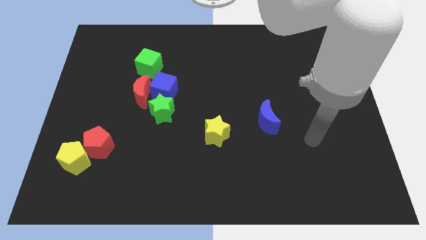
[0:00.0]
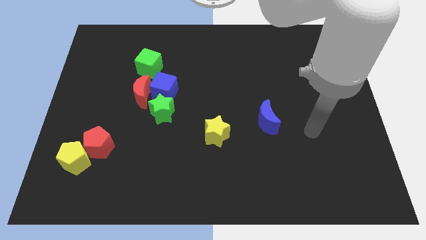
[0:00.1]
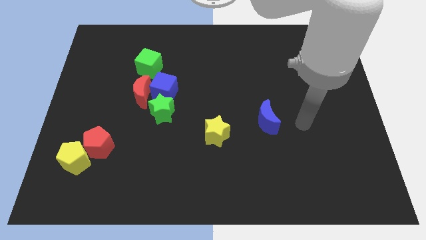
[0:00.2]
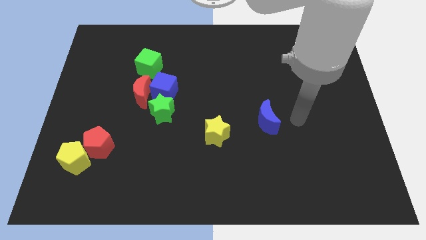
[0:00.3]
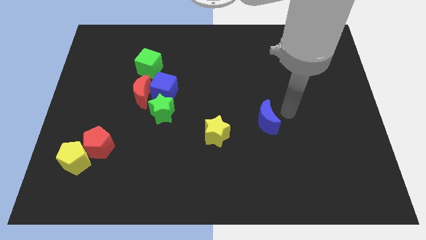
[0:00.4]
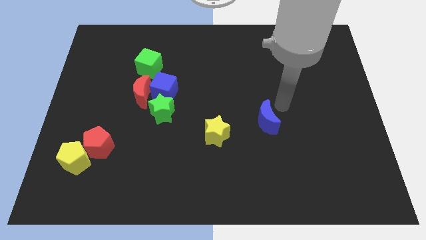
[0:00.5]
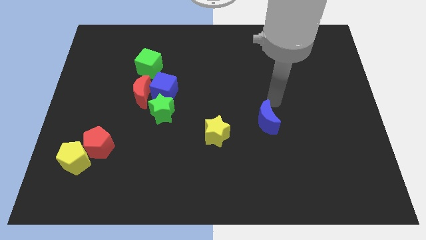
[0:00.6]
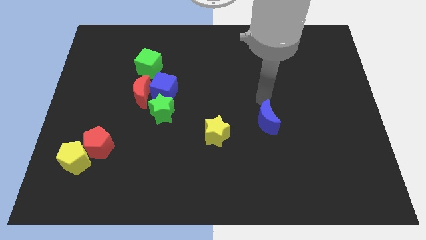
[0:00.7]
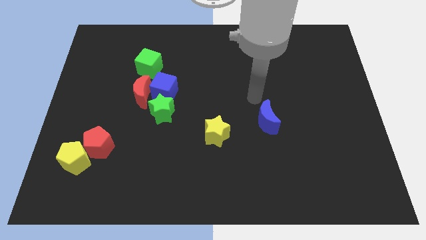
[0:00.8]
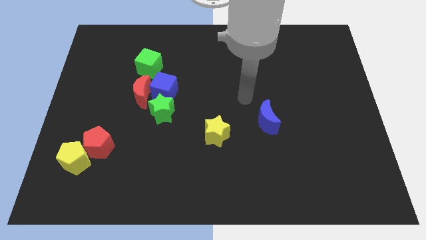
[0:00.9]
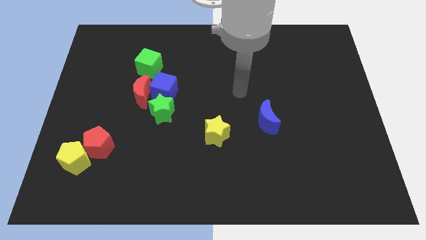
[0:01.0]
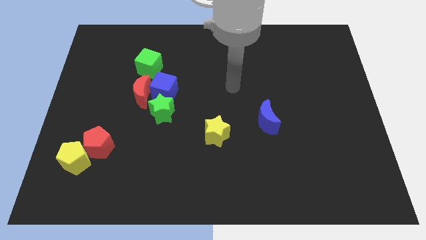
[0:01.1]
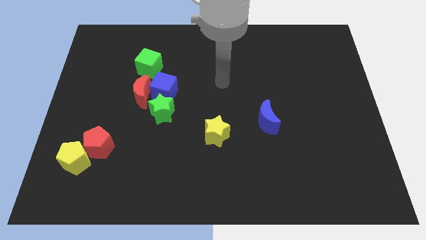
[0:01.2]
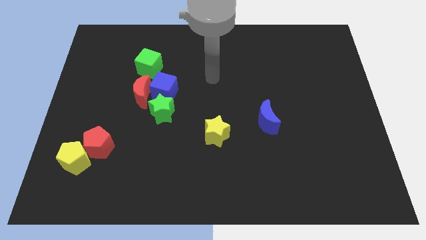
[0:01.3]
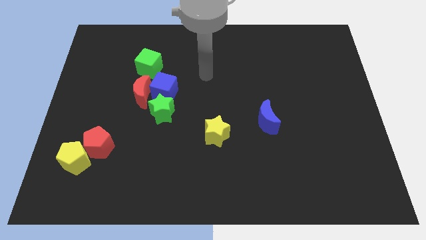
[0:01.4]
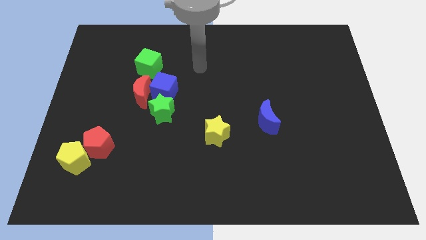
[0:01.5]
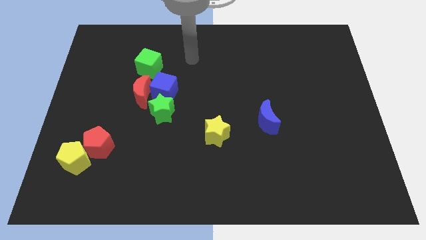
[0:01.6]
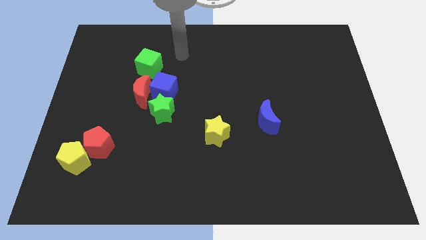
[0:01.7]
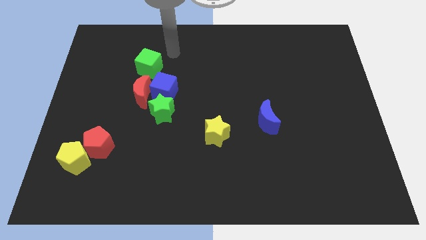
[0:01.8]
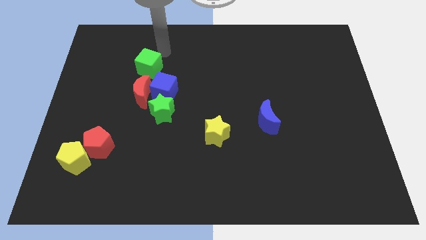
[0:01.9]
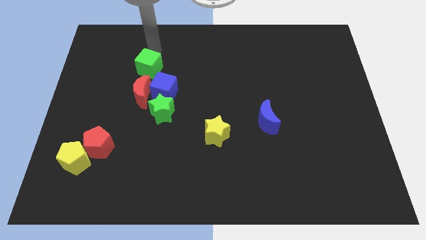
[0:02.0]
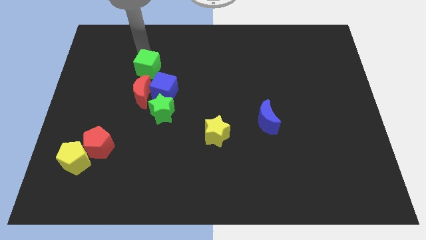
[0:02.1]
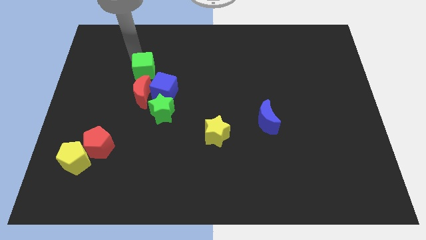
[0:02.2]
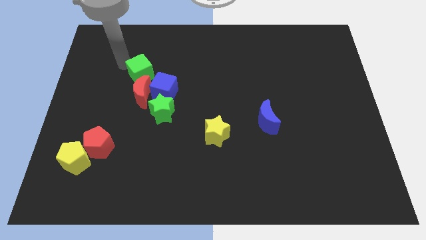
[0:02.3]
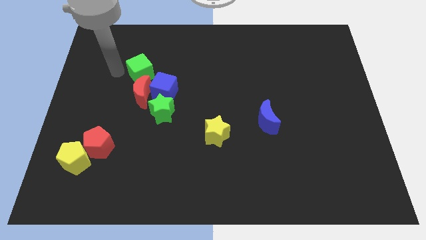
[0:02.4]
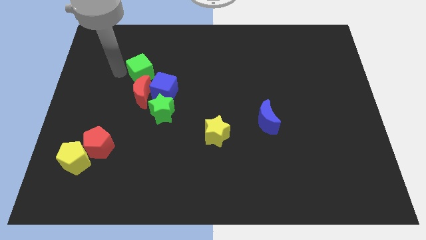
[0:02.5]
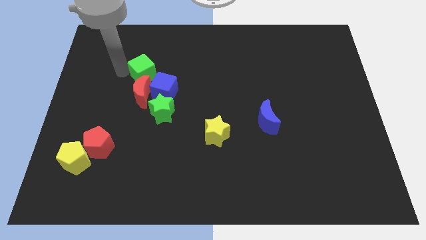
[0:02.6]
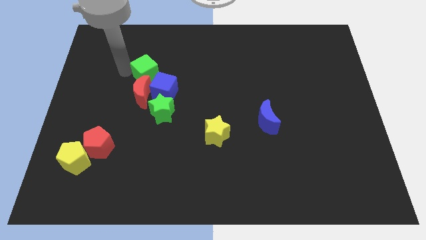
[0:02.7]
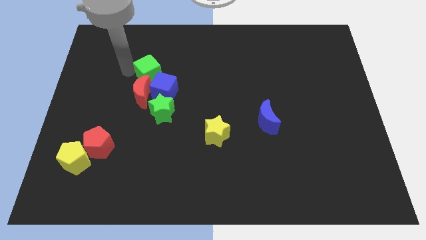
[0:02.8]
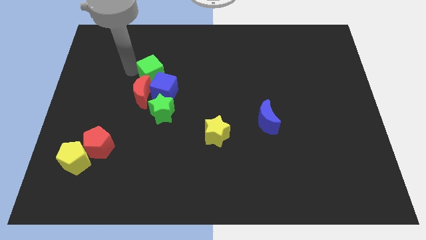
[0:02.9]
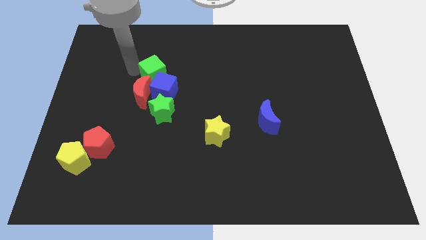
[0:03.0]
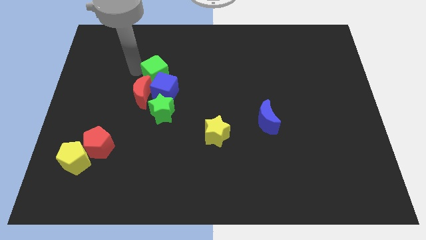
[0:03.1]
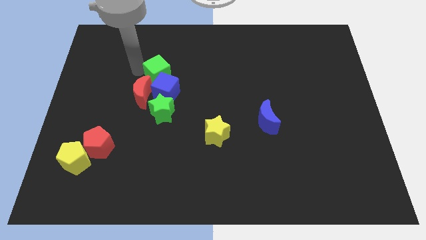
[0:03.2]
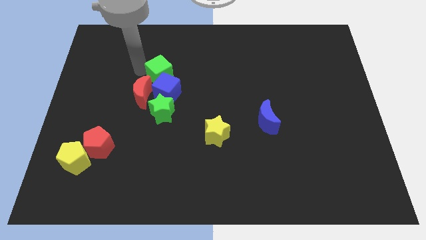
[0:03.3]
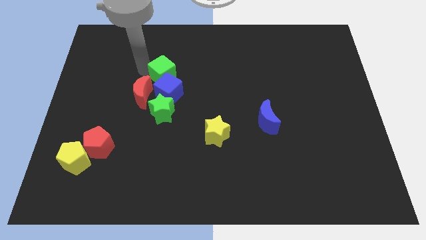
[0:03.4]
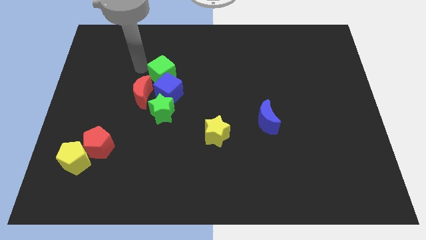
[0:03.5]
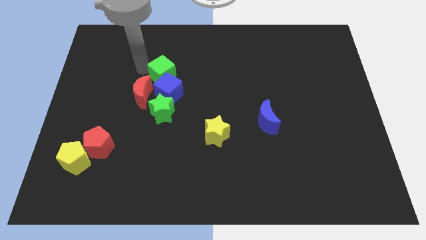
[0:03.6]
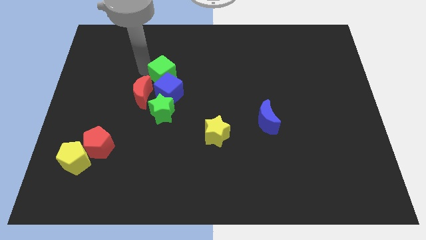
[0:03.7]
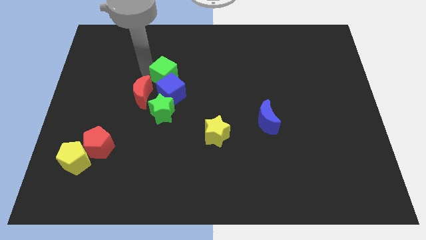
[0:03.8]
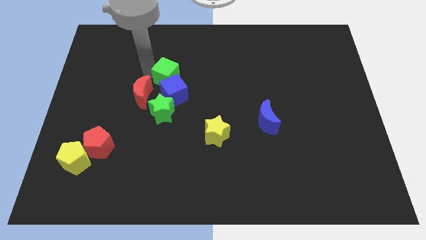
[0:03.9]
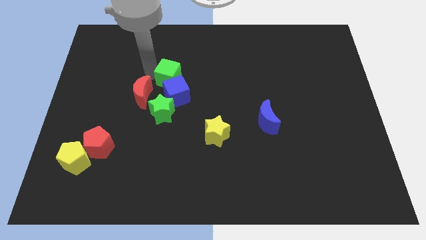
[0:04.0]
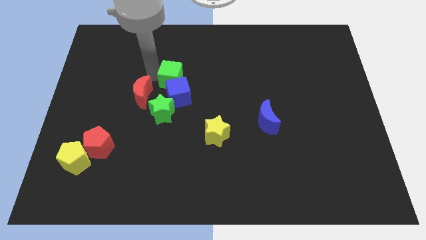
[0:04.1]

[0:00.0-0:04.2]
slide the green cube slightly down and to the right

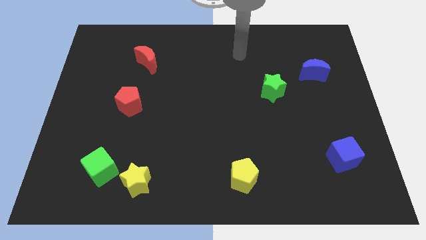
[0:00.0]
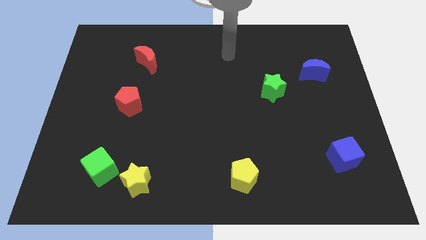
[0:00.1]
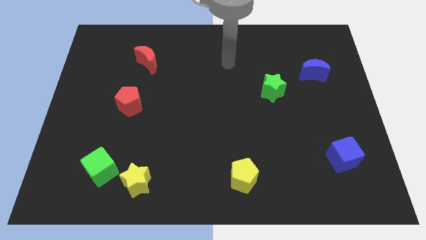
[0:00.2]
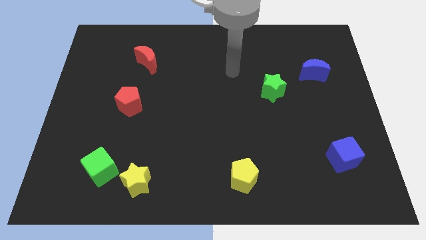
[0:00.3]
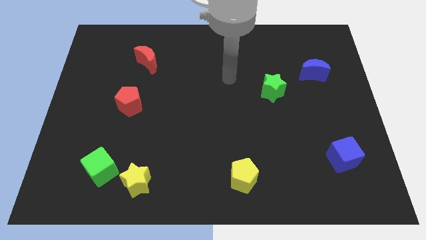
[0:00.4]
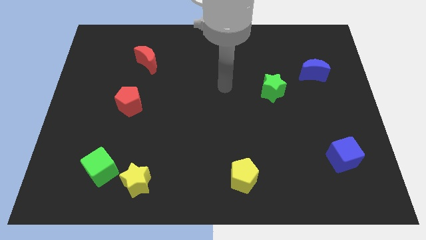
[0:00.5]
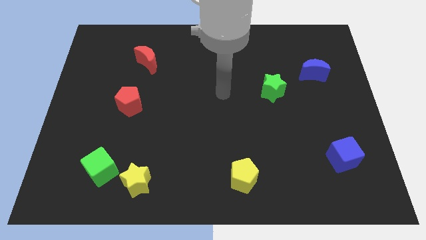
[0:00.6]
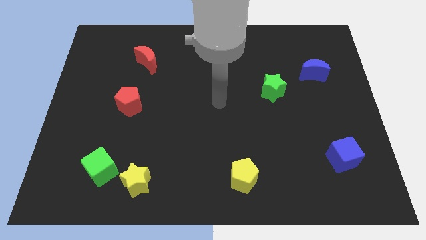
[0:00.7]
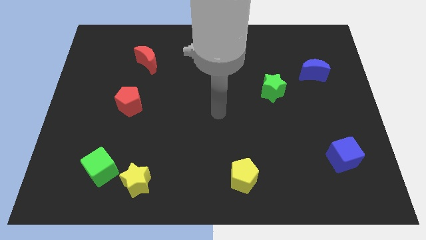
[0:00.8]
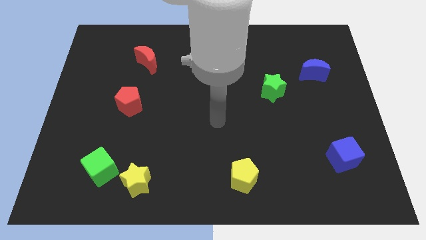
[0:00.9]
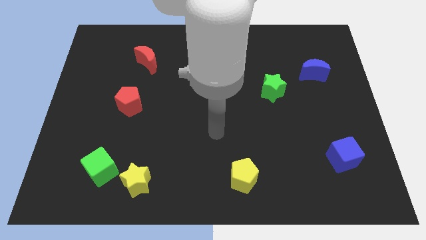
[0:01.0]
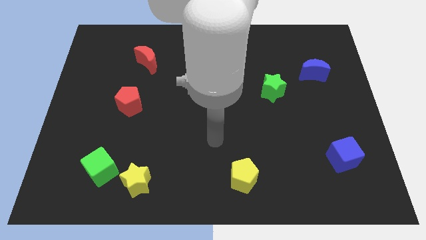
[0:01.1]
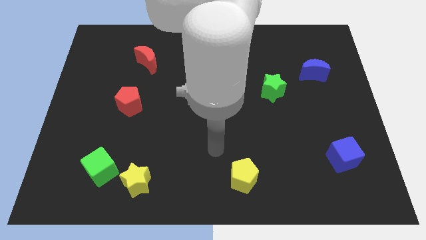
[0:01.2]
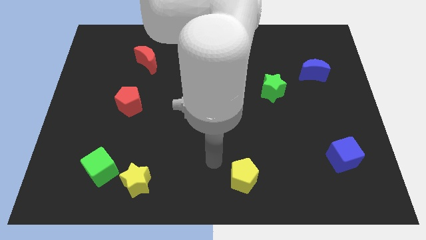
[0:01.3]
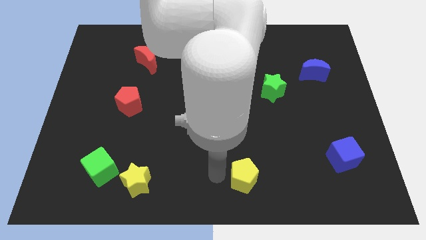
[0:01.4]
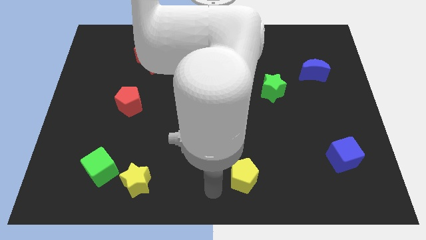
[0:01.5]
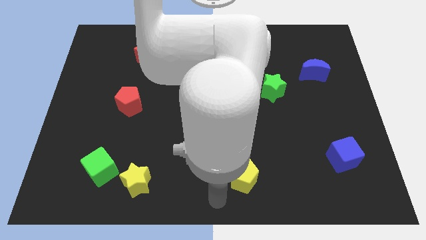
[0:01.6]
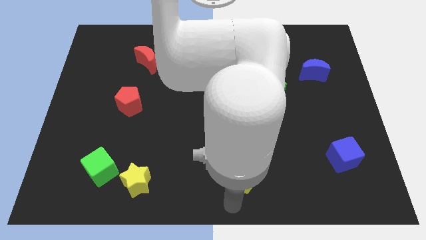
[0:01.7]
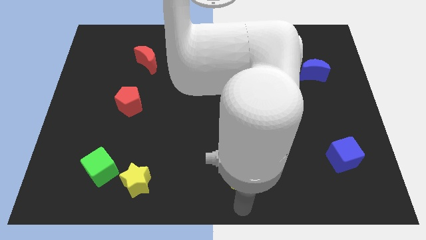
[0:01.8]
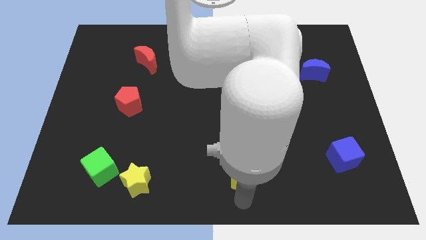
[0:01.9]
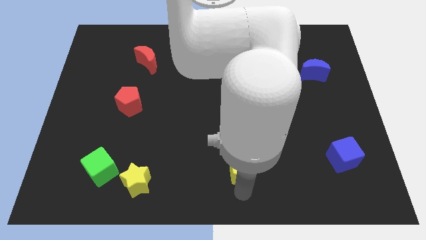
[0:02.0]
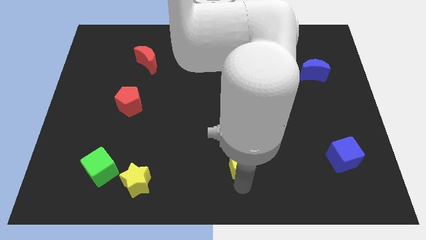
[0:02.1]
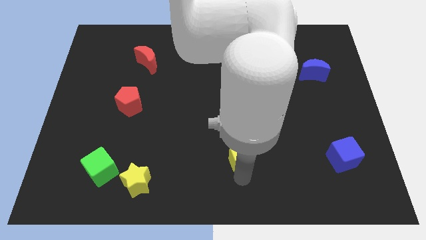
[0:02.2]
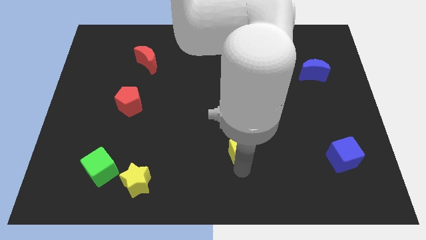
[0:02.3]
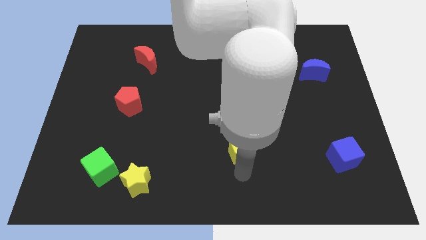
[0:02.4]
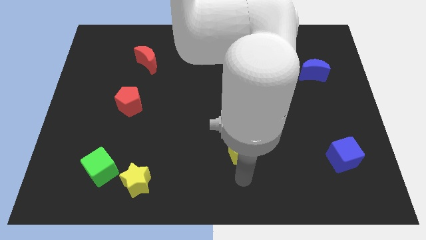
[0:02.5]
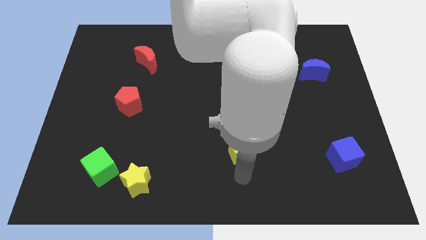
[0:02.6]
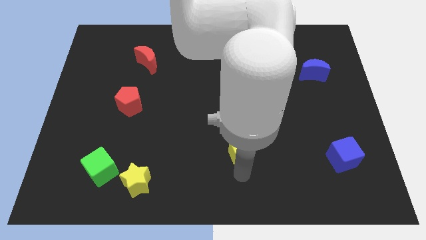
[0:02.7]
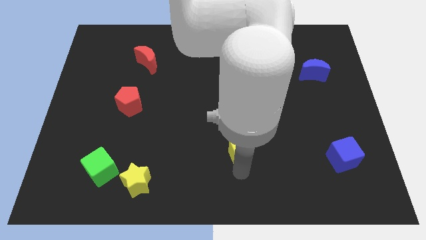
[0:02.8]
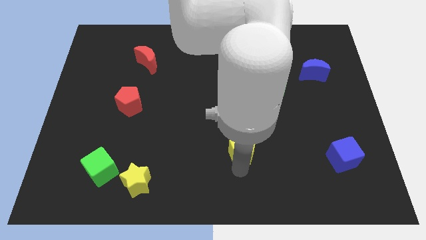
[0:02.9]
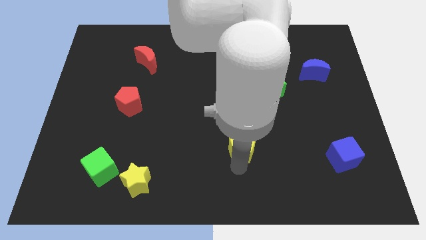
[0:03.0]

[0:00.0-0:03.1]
slightly slide the yellow pentagon upwards

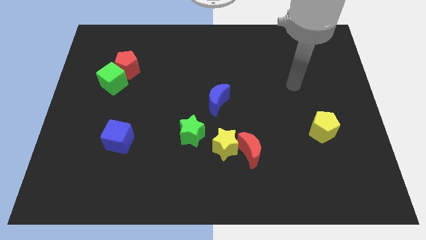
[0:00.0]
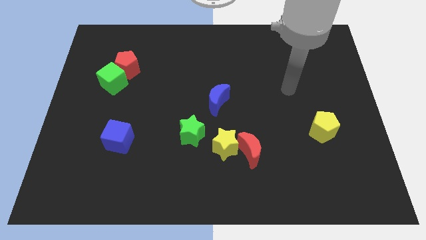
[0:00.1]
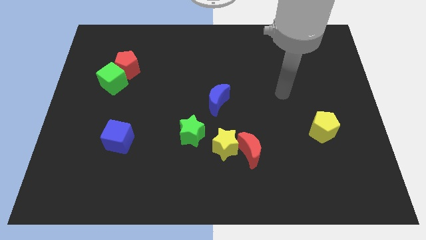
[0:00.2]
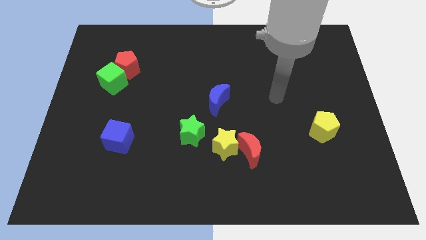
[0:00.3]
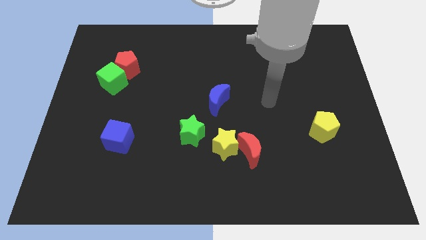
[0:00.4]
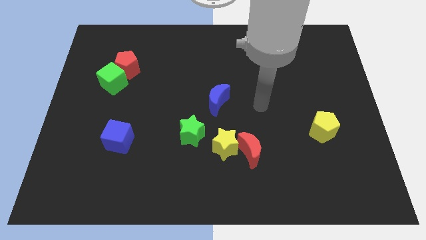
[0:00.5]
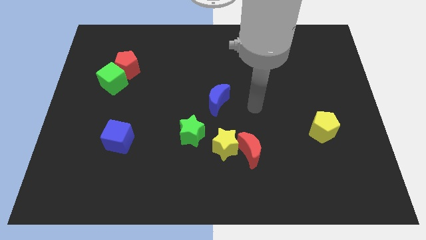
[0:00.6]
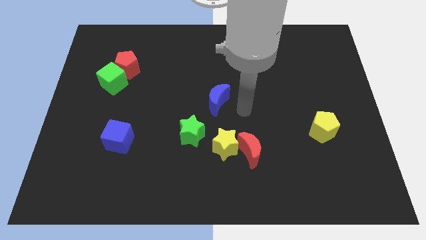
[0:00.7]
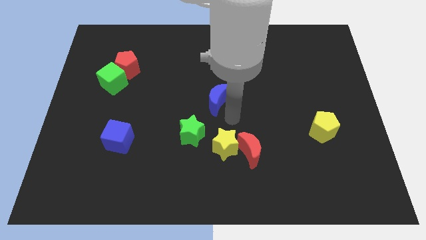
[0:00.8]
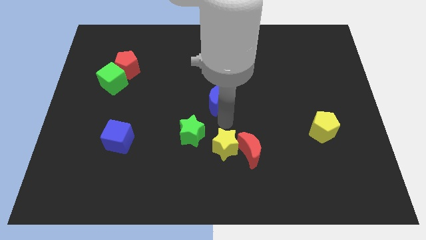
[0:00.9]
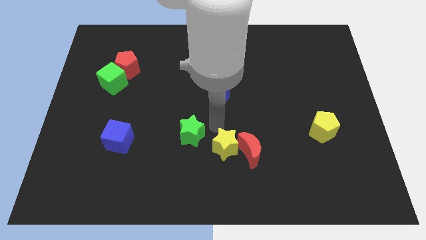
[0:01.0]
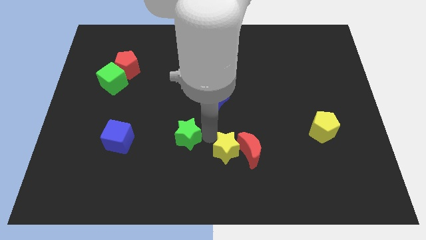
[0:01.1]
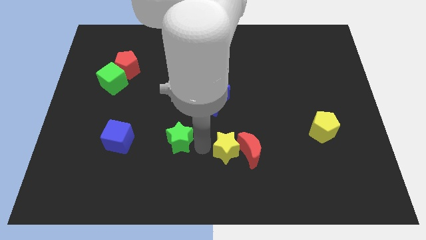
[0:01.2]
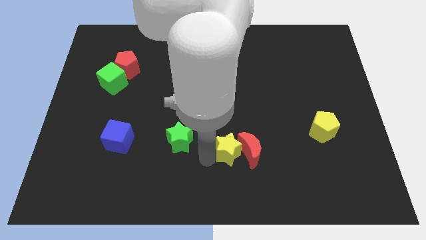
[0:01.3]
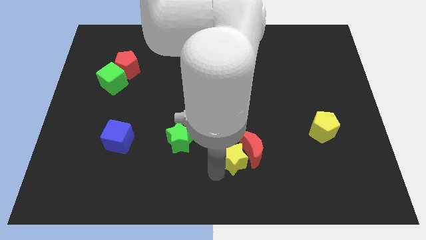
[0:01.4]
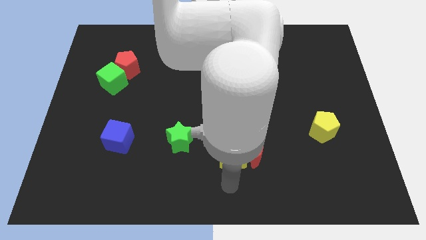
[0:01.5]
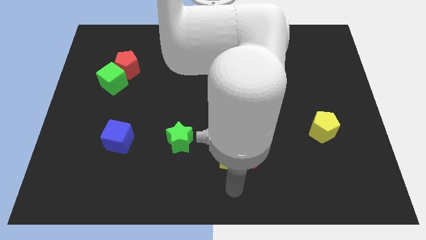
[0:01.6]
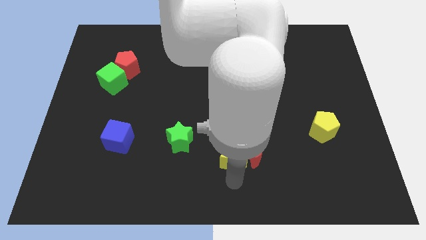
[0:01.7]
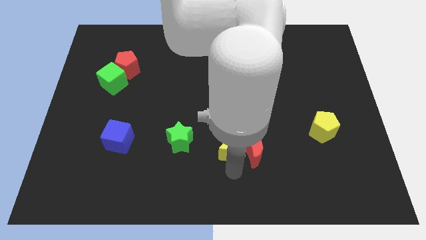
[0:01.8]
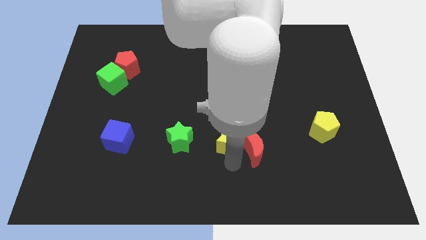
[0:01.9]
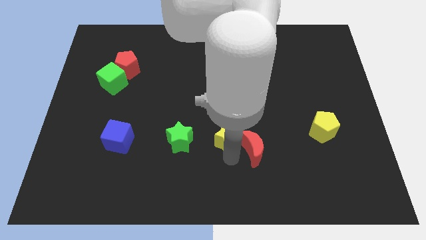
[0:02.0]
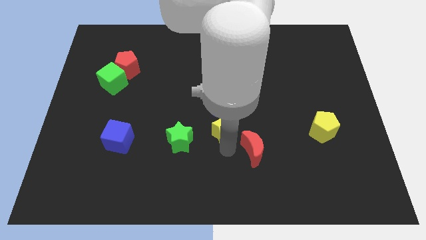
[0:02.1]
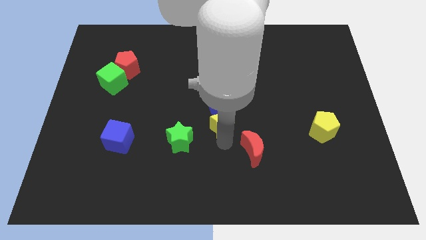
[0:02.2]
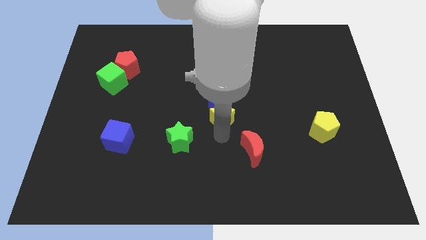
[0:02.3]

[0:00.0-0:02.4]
move the yellow star up a bit
